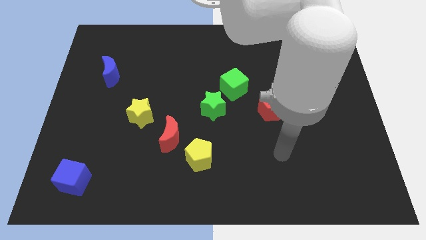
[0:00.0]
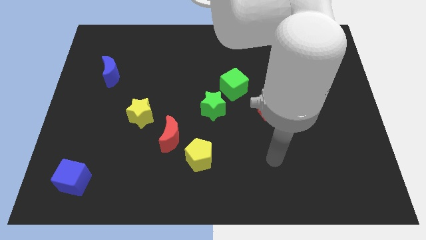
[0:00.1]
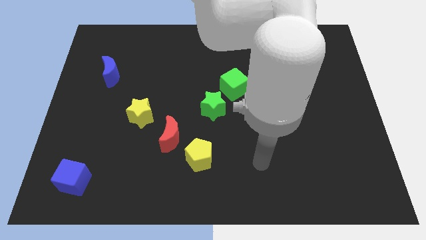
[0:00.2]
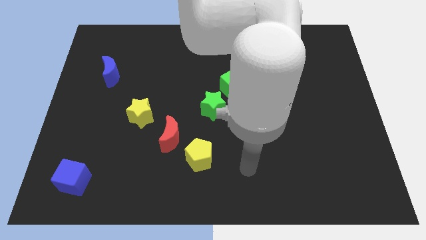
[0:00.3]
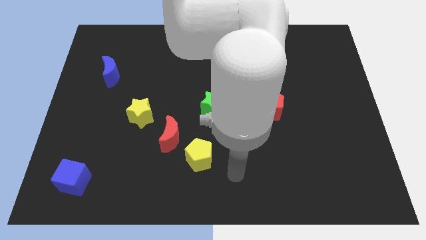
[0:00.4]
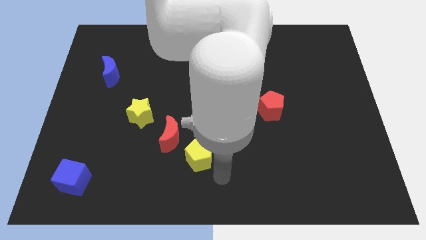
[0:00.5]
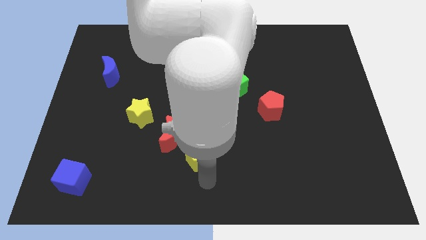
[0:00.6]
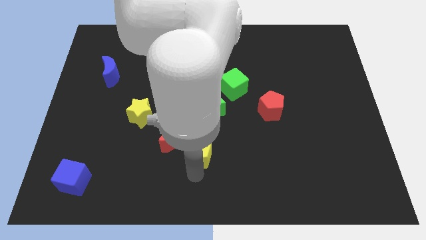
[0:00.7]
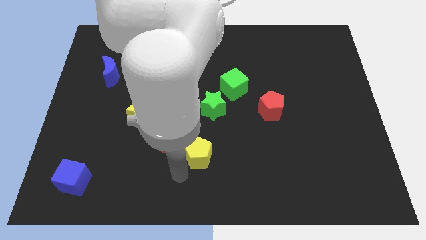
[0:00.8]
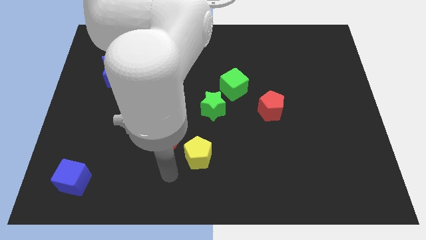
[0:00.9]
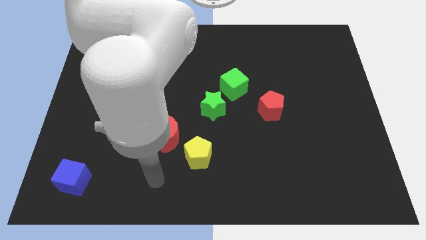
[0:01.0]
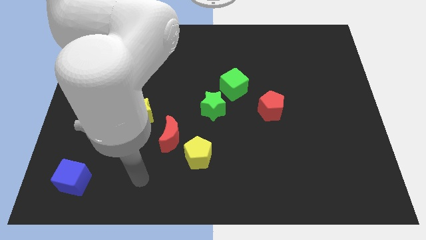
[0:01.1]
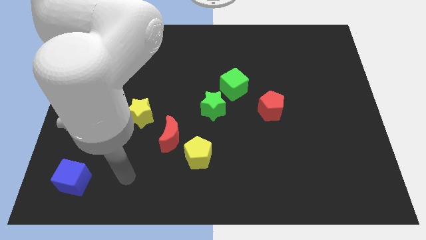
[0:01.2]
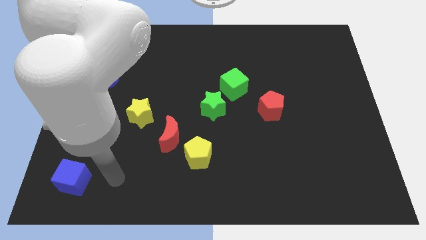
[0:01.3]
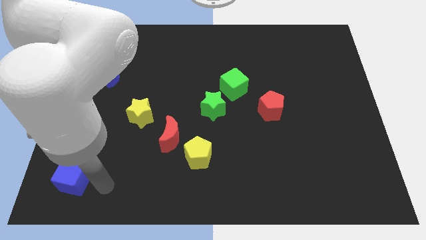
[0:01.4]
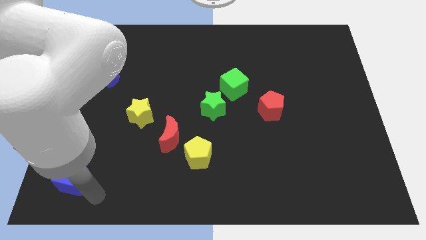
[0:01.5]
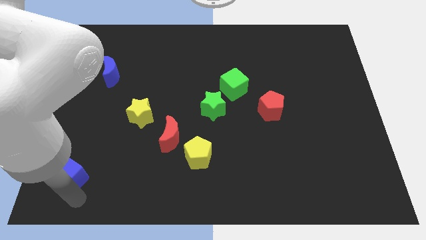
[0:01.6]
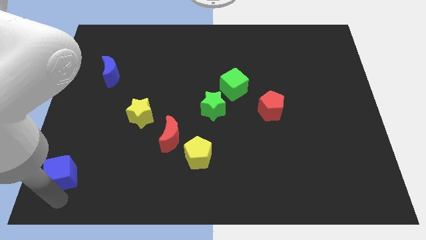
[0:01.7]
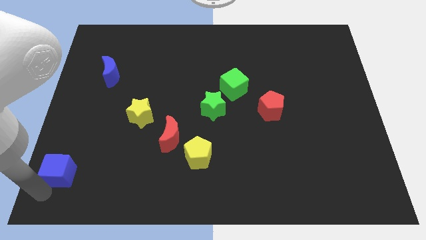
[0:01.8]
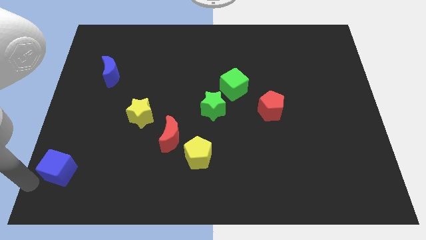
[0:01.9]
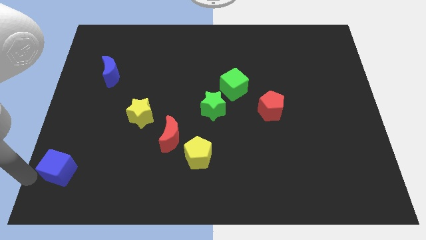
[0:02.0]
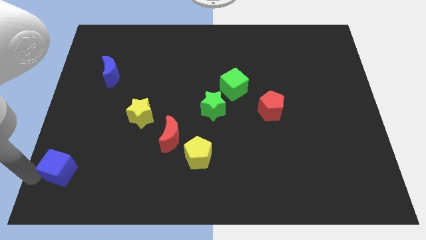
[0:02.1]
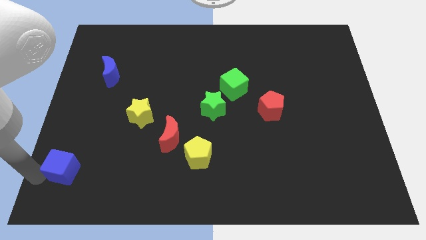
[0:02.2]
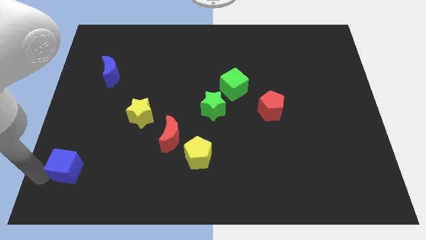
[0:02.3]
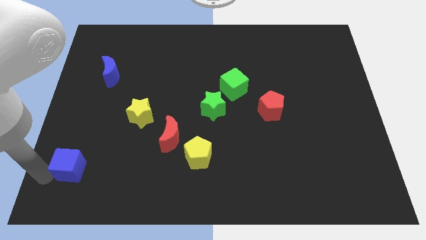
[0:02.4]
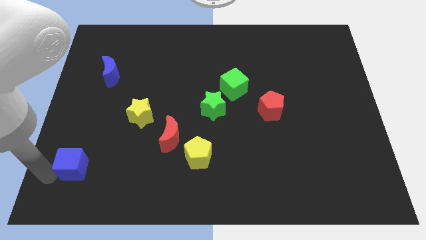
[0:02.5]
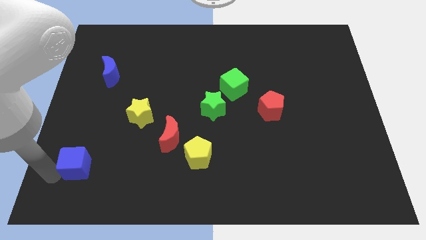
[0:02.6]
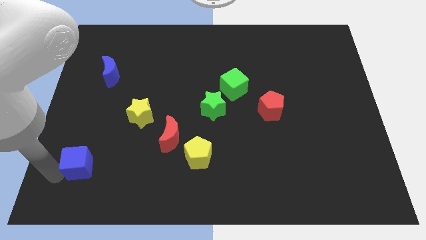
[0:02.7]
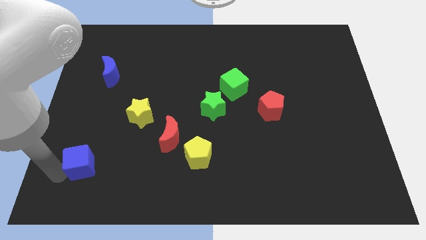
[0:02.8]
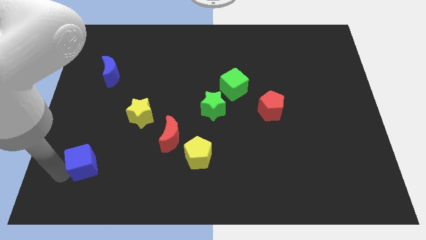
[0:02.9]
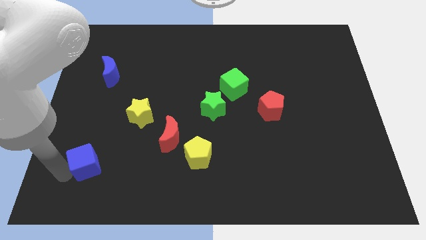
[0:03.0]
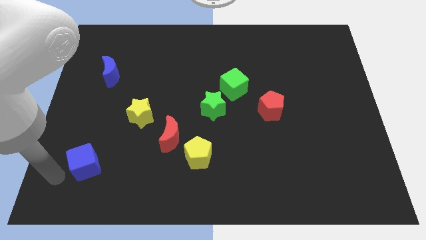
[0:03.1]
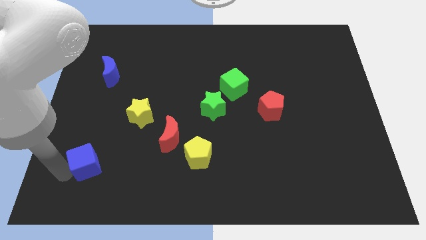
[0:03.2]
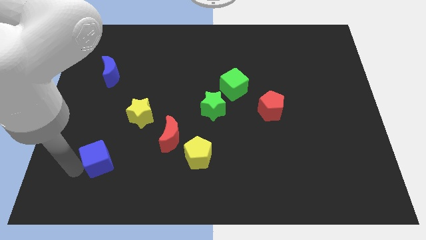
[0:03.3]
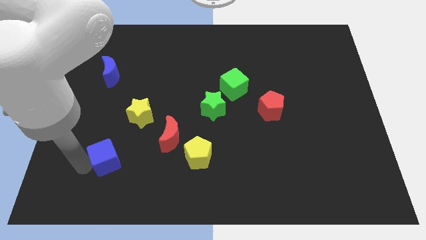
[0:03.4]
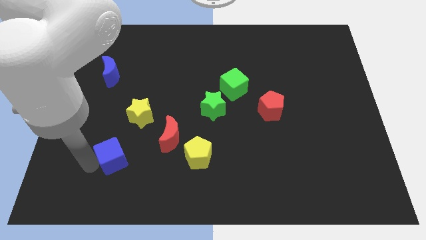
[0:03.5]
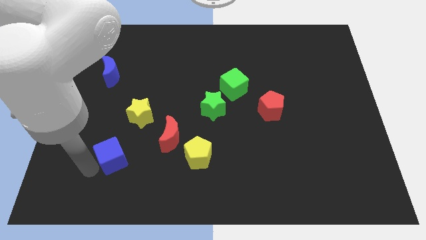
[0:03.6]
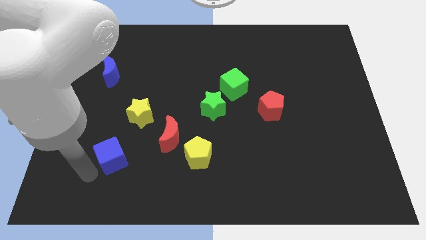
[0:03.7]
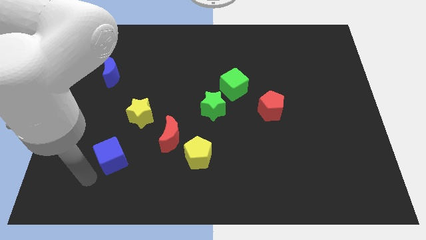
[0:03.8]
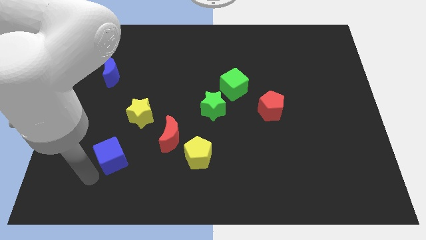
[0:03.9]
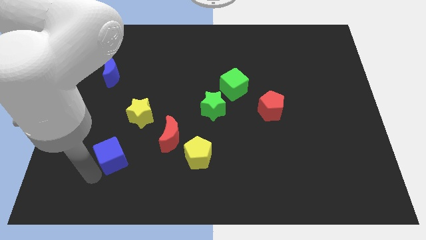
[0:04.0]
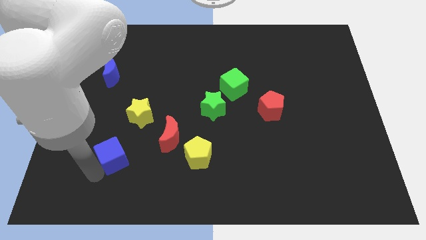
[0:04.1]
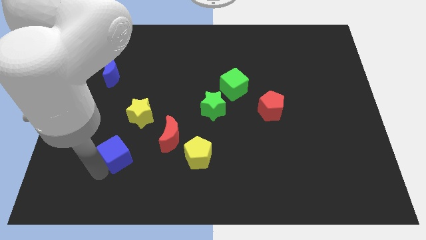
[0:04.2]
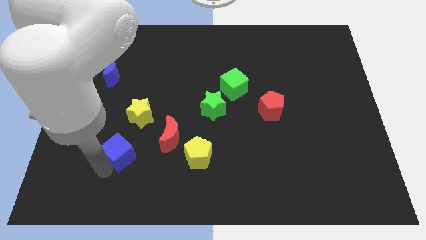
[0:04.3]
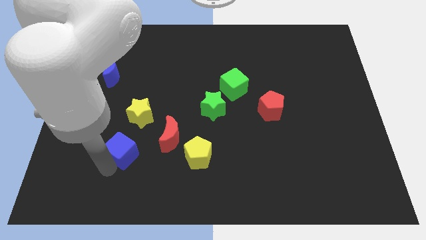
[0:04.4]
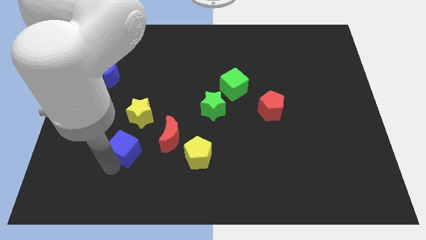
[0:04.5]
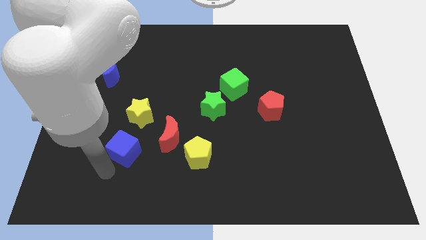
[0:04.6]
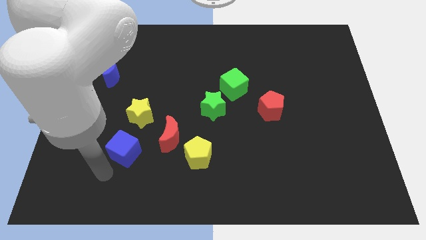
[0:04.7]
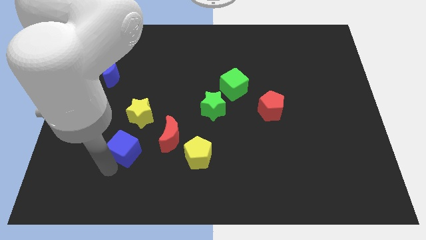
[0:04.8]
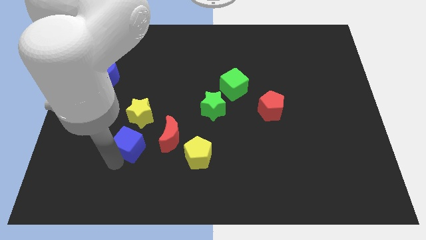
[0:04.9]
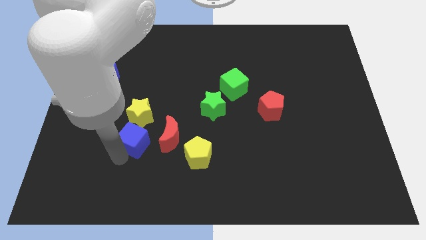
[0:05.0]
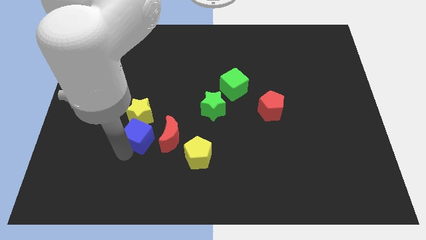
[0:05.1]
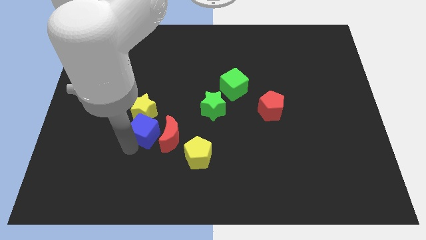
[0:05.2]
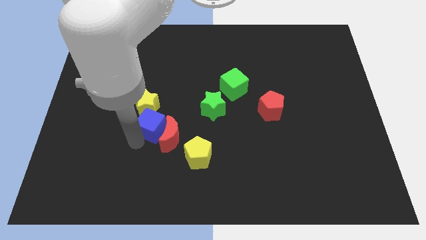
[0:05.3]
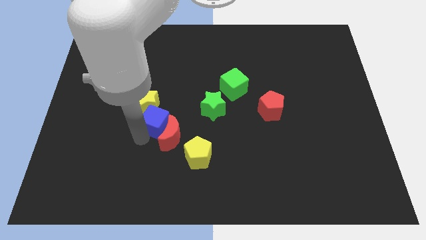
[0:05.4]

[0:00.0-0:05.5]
push the blue cube diagonally up and right

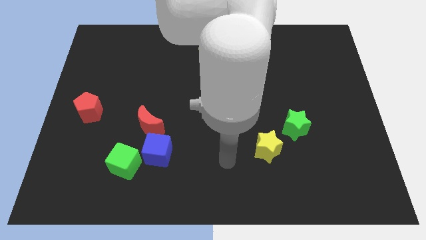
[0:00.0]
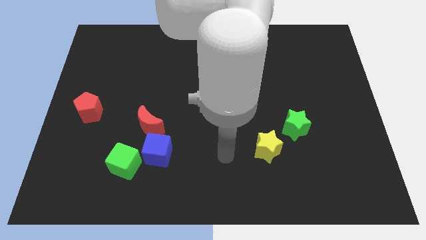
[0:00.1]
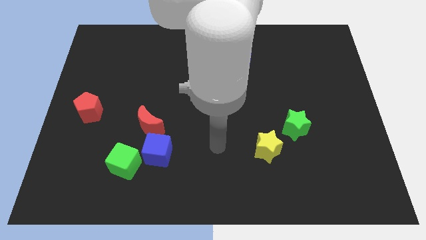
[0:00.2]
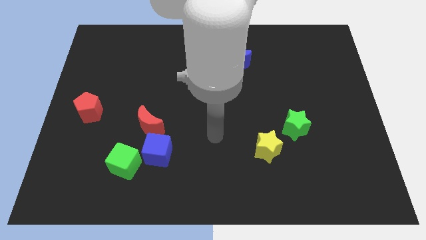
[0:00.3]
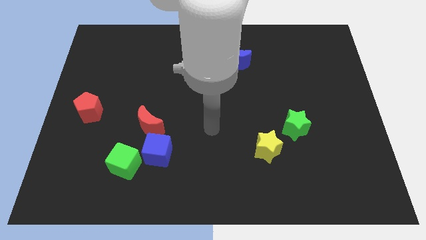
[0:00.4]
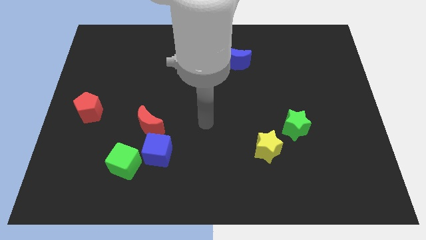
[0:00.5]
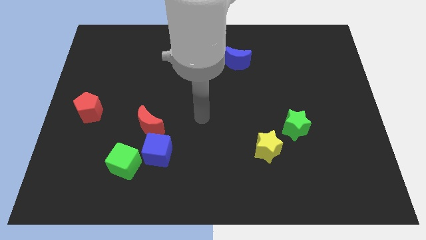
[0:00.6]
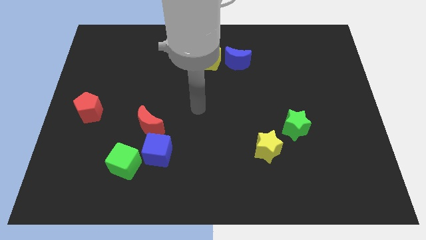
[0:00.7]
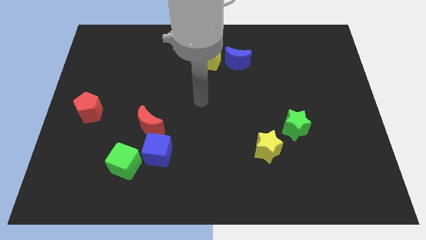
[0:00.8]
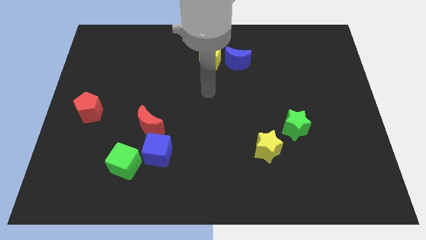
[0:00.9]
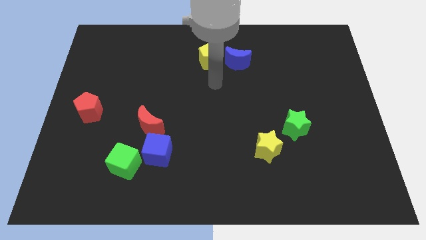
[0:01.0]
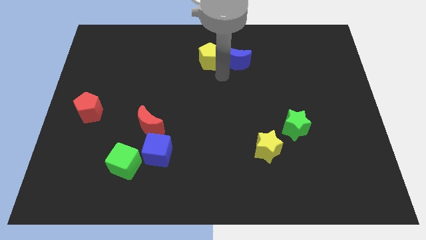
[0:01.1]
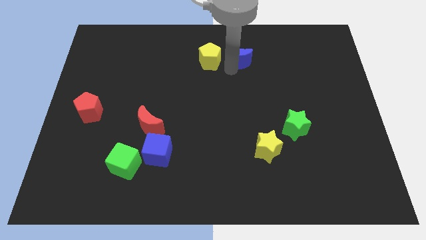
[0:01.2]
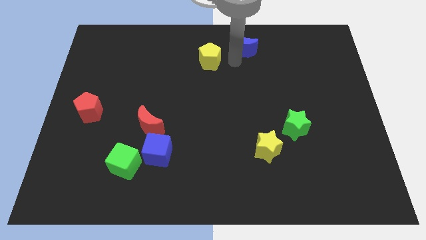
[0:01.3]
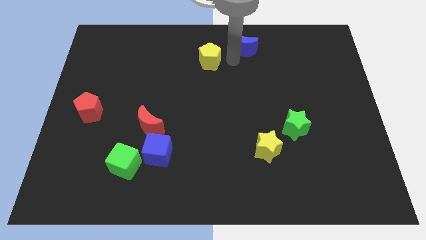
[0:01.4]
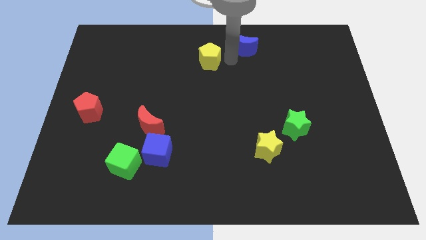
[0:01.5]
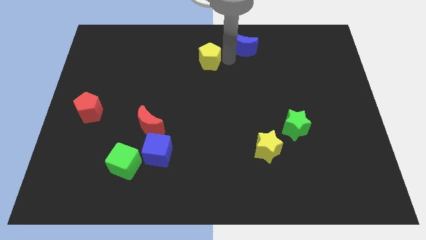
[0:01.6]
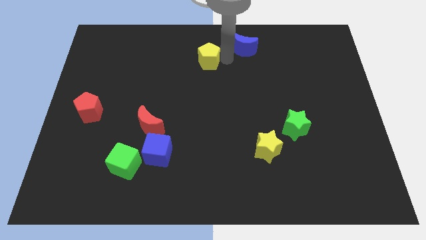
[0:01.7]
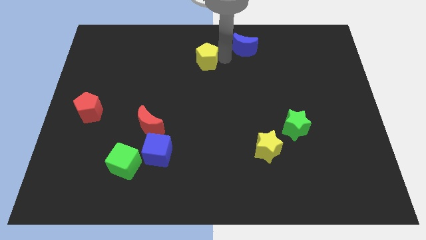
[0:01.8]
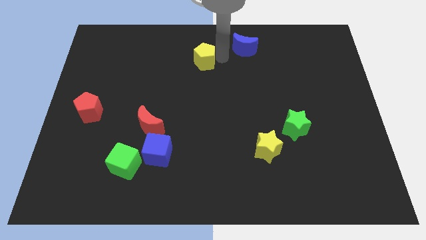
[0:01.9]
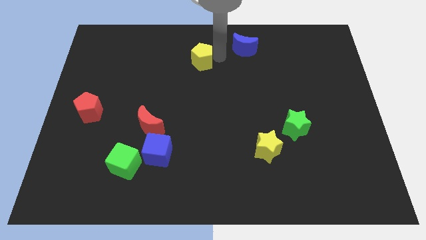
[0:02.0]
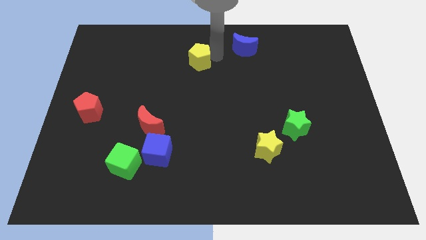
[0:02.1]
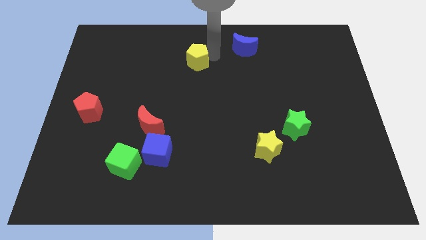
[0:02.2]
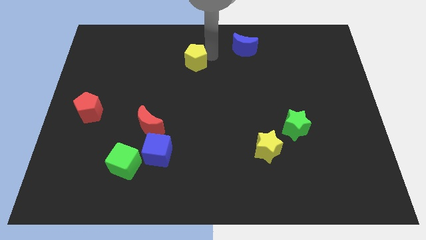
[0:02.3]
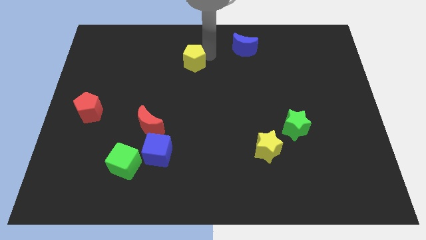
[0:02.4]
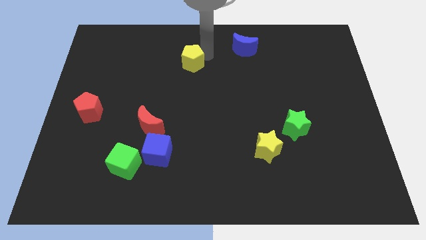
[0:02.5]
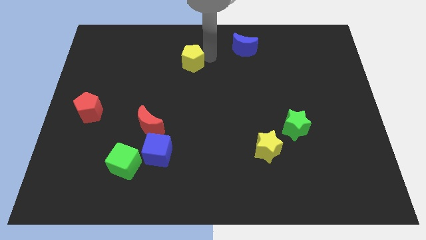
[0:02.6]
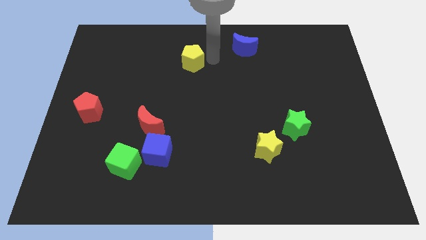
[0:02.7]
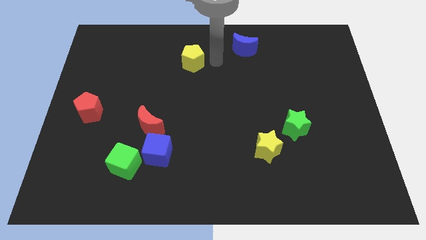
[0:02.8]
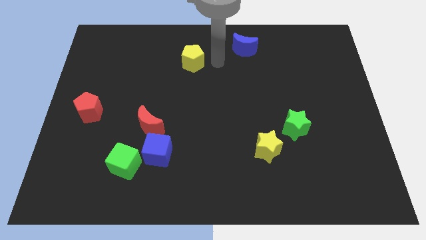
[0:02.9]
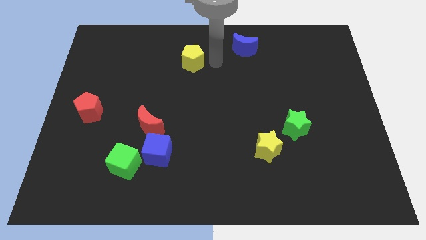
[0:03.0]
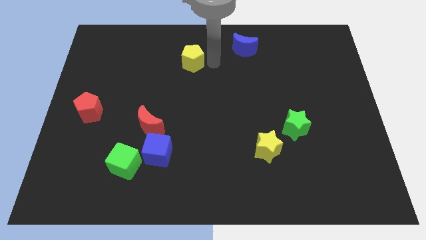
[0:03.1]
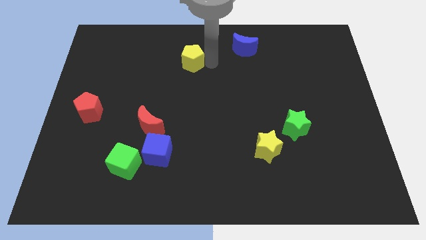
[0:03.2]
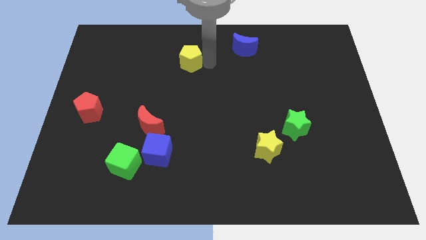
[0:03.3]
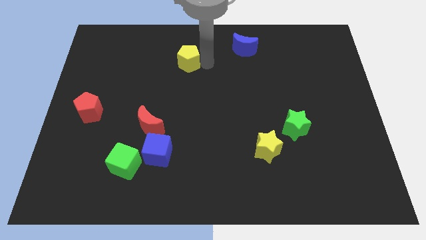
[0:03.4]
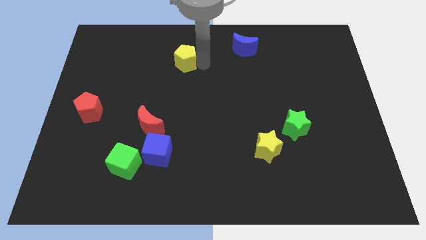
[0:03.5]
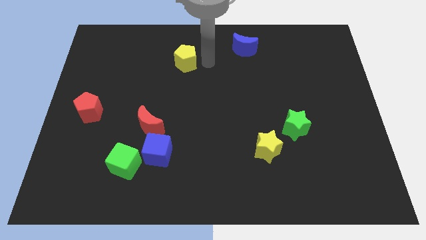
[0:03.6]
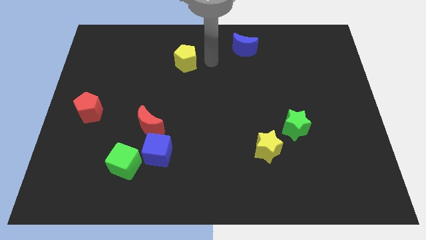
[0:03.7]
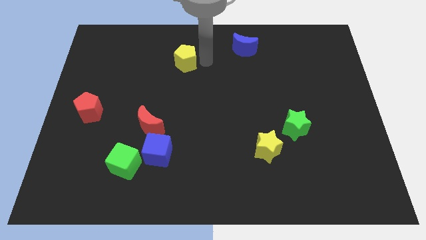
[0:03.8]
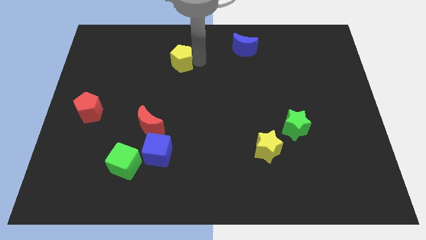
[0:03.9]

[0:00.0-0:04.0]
slide the yellow pentagon left a bit
